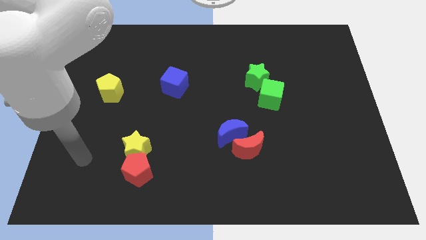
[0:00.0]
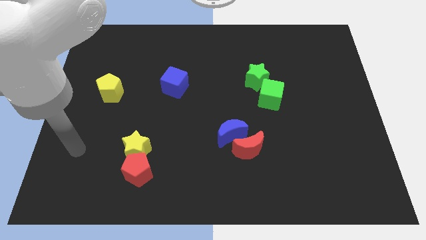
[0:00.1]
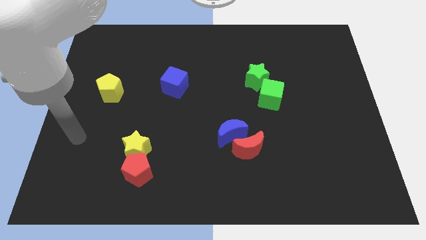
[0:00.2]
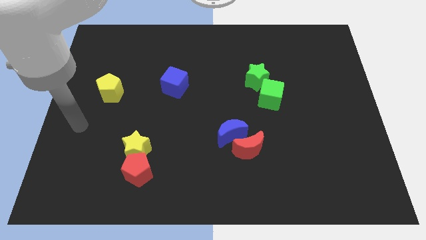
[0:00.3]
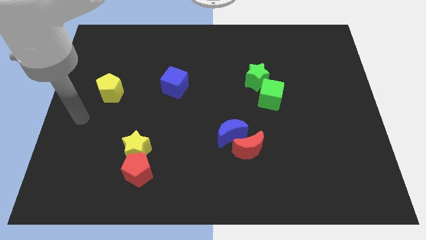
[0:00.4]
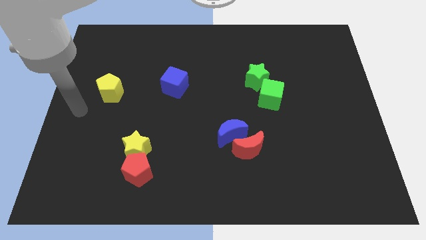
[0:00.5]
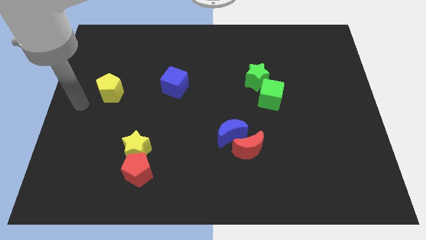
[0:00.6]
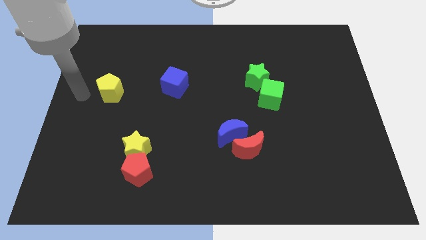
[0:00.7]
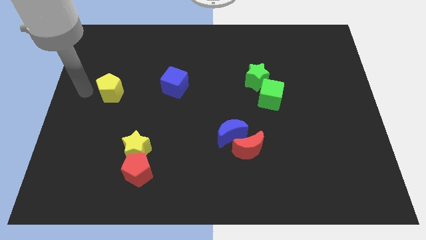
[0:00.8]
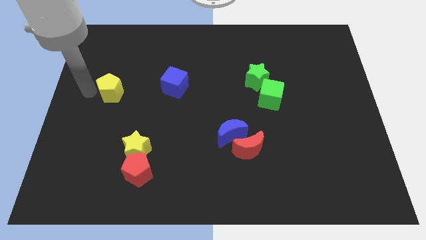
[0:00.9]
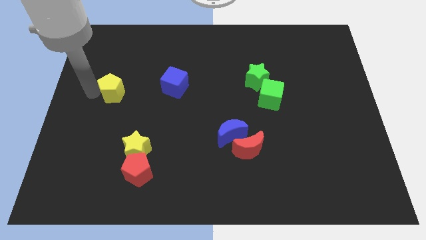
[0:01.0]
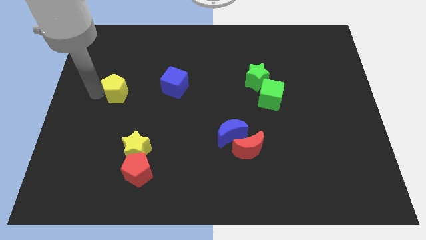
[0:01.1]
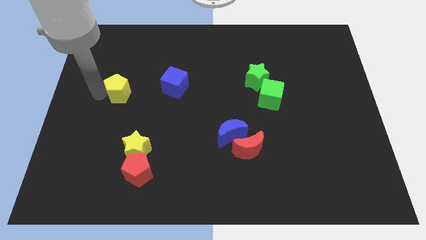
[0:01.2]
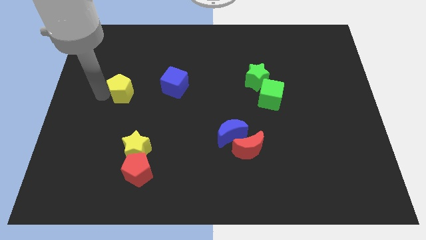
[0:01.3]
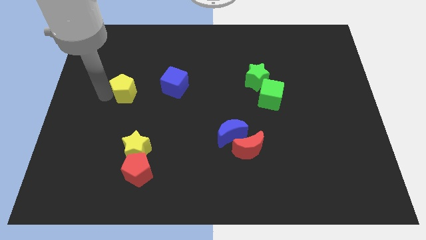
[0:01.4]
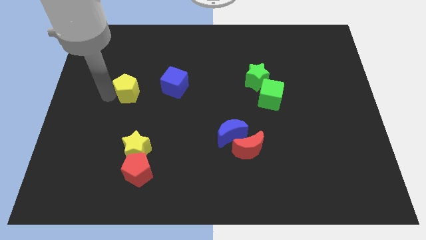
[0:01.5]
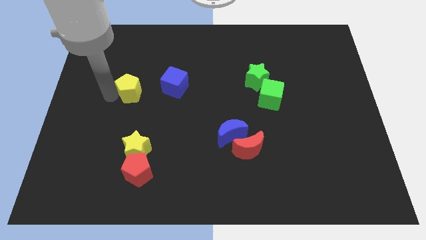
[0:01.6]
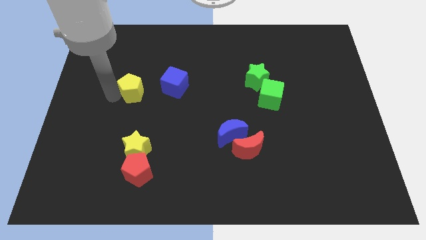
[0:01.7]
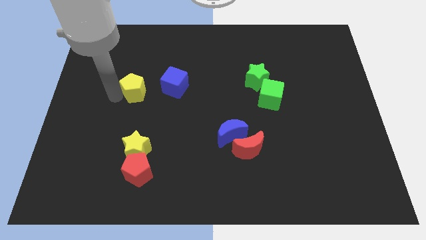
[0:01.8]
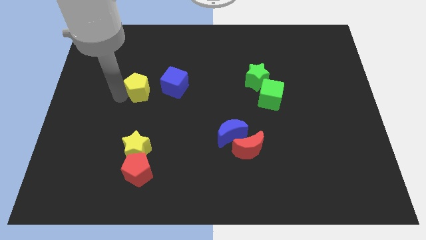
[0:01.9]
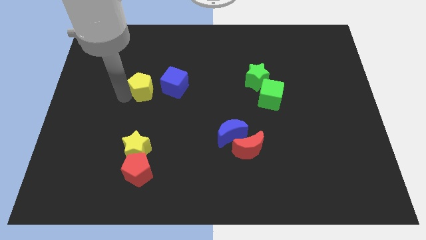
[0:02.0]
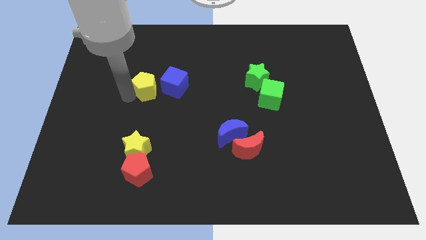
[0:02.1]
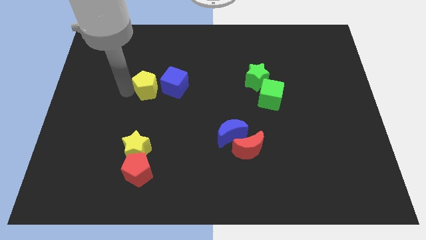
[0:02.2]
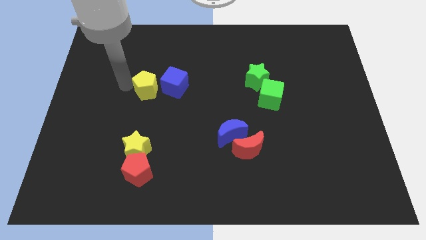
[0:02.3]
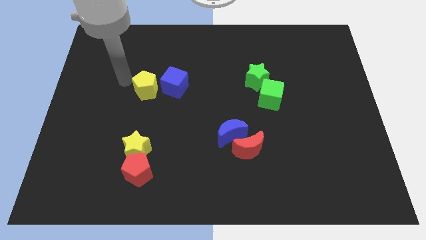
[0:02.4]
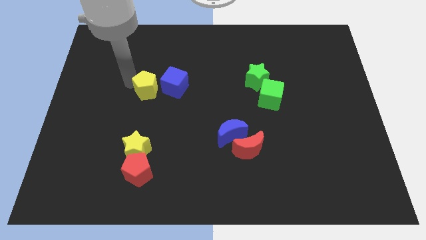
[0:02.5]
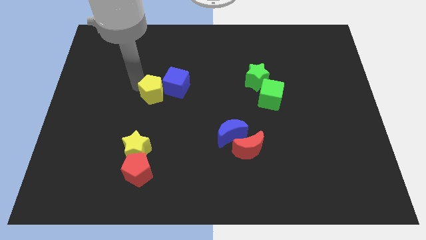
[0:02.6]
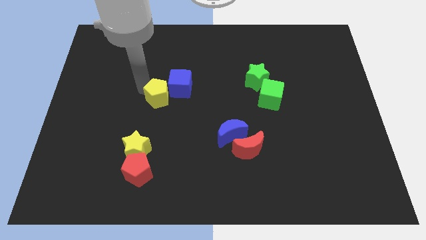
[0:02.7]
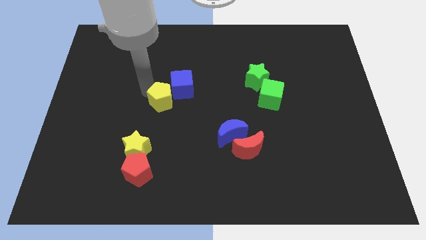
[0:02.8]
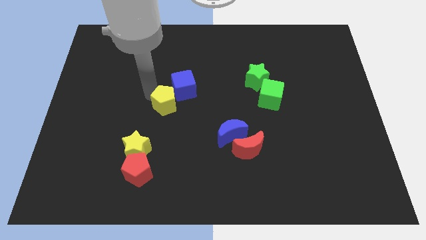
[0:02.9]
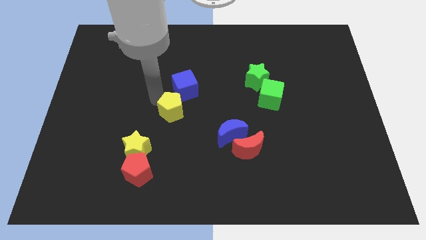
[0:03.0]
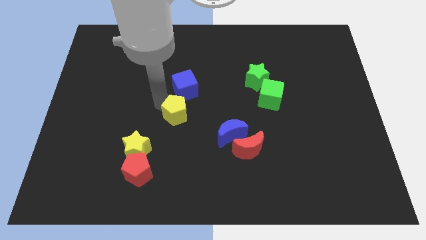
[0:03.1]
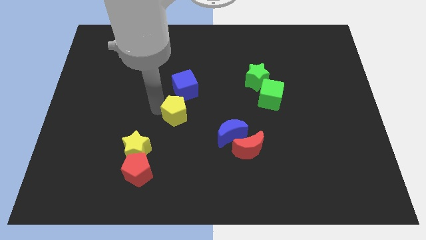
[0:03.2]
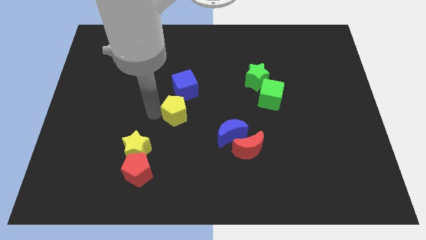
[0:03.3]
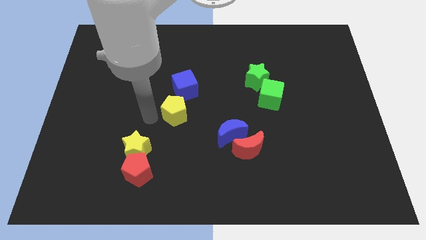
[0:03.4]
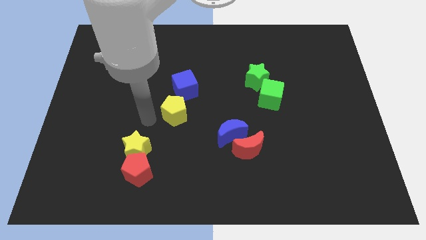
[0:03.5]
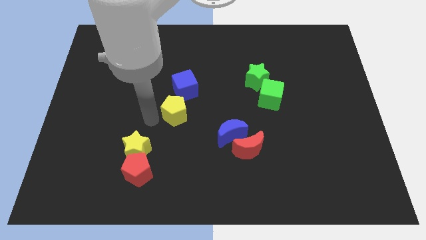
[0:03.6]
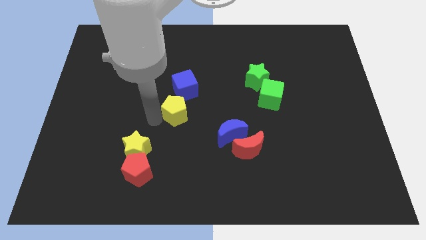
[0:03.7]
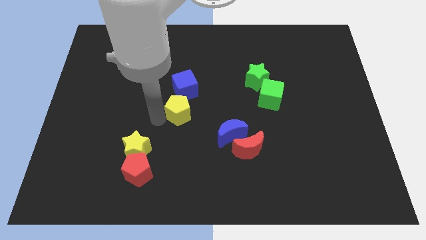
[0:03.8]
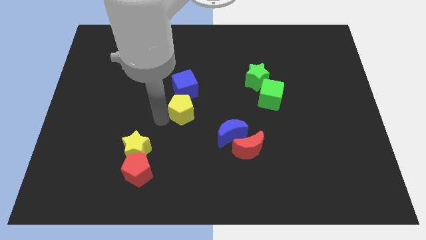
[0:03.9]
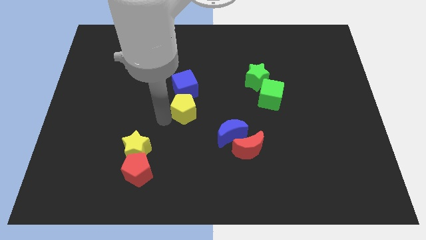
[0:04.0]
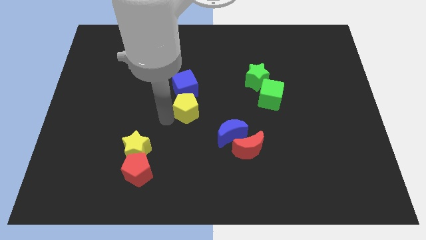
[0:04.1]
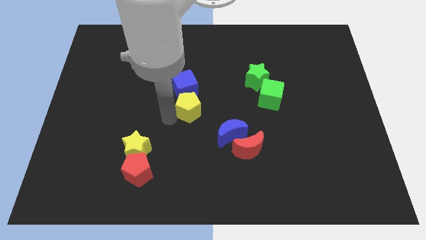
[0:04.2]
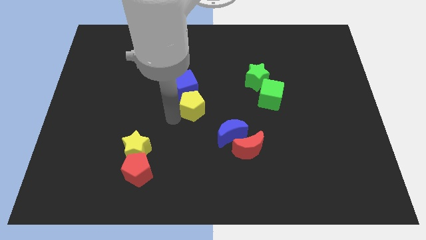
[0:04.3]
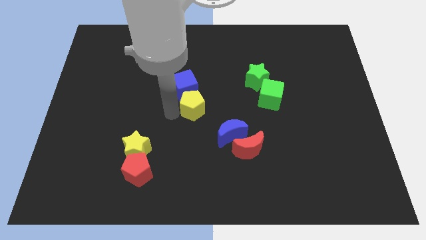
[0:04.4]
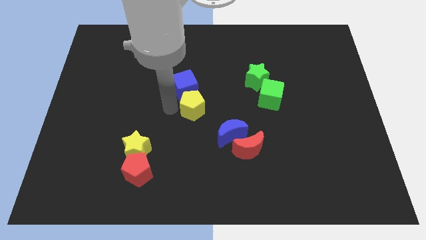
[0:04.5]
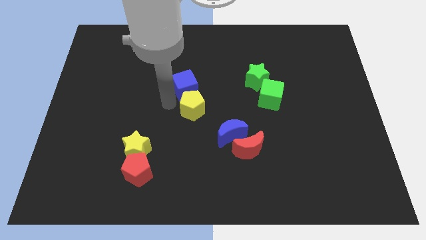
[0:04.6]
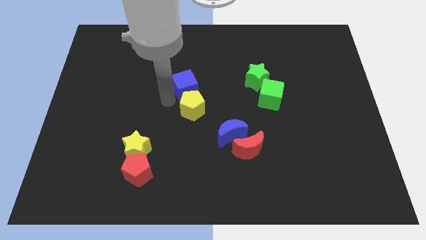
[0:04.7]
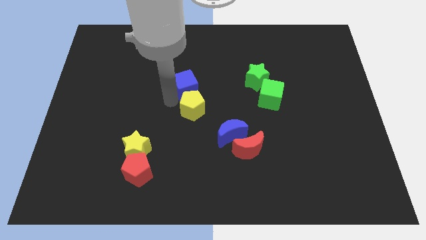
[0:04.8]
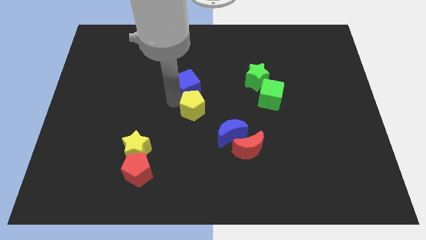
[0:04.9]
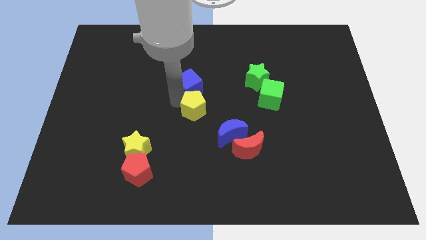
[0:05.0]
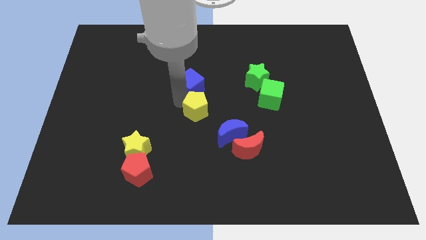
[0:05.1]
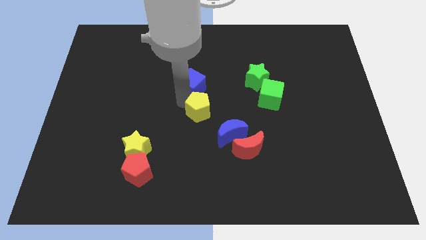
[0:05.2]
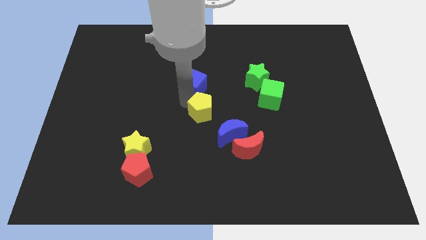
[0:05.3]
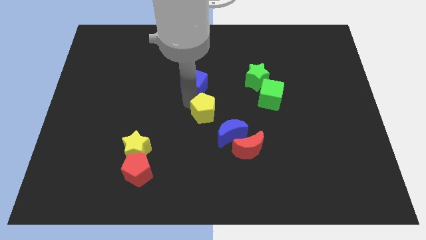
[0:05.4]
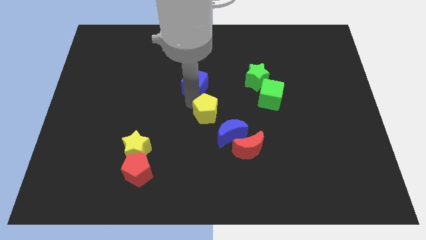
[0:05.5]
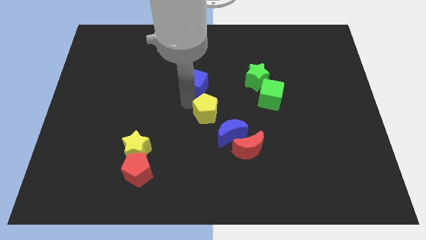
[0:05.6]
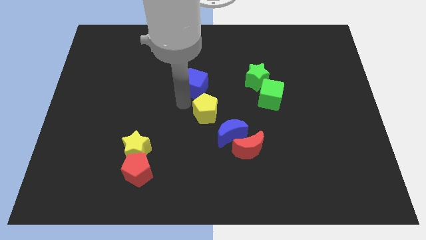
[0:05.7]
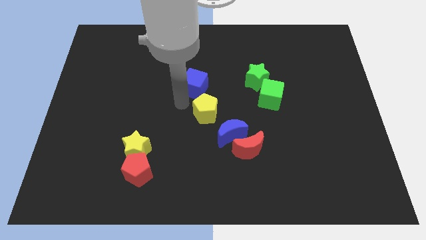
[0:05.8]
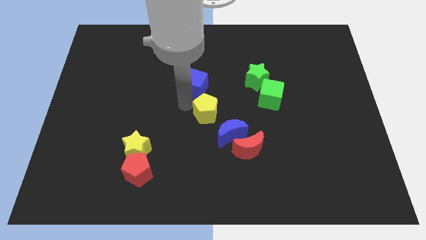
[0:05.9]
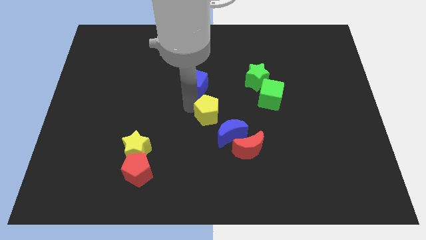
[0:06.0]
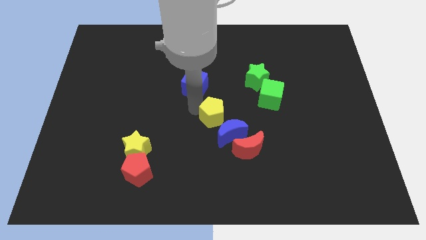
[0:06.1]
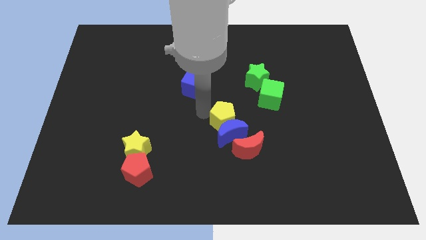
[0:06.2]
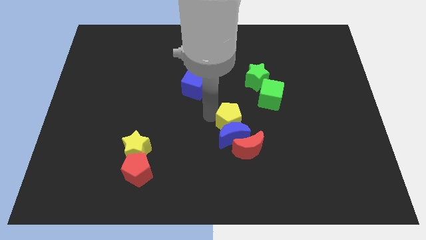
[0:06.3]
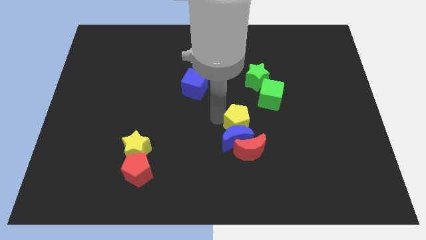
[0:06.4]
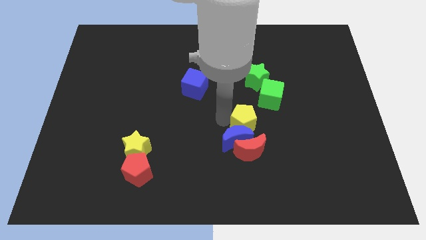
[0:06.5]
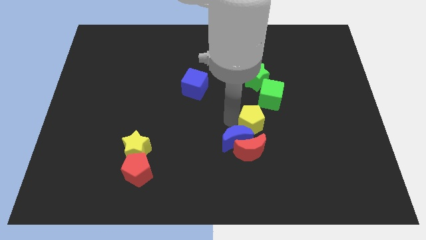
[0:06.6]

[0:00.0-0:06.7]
put the yellow pentagon diagonally up and to the right of the red moon

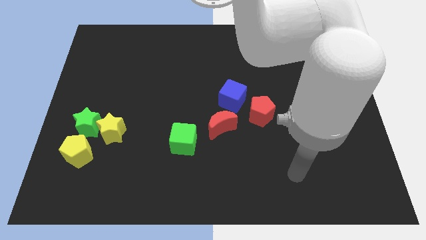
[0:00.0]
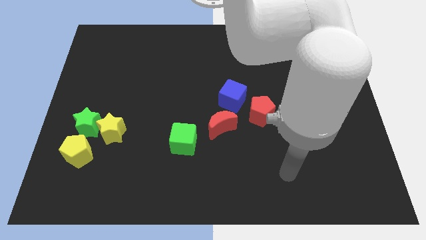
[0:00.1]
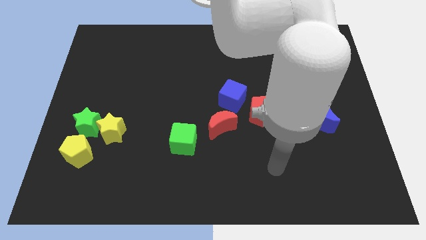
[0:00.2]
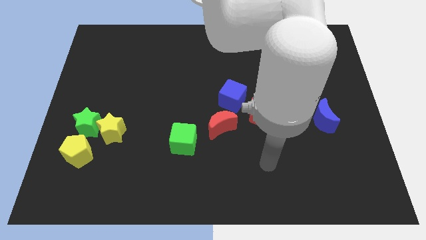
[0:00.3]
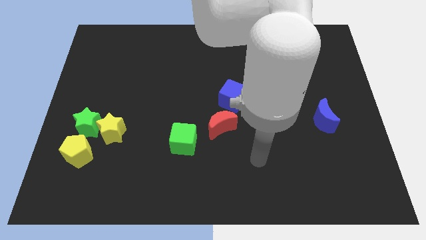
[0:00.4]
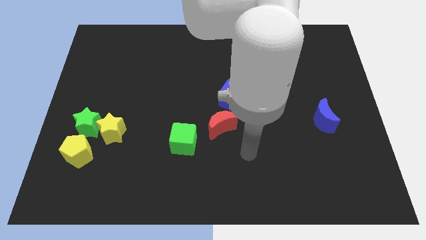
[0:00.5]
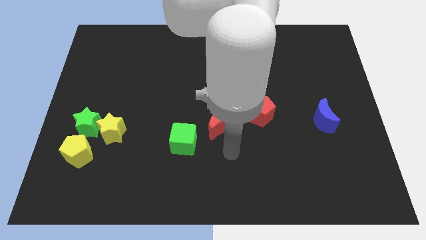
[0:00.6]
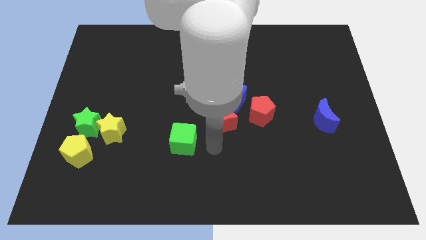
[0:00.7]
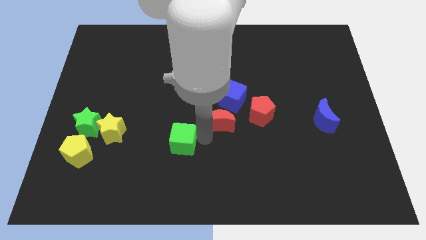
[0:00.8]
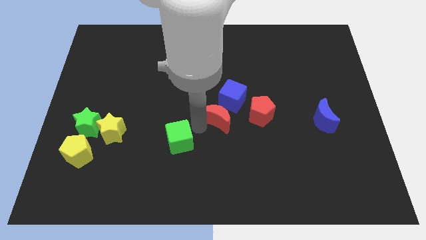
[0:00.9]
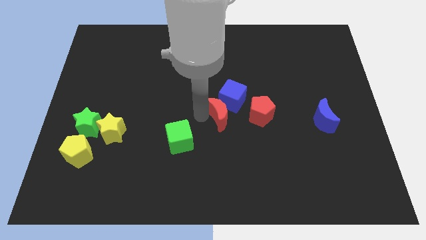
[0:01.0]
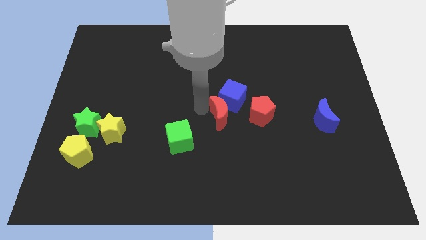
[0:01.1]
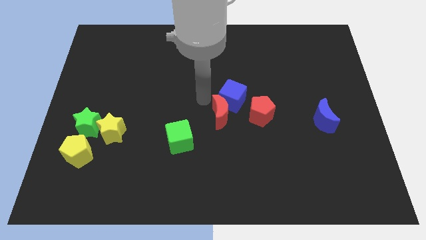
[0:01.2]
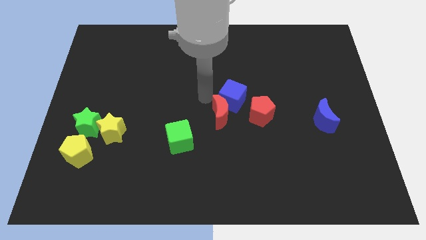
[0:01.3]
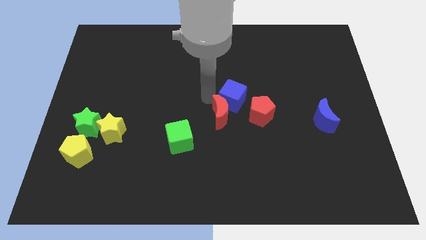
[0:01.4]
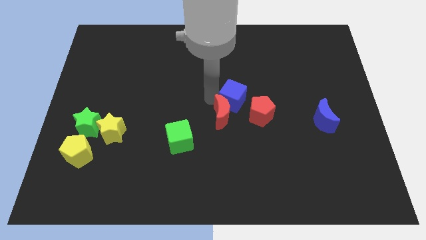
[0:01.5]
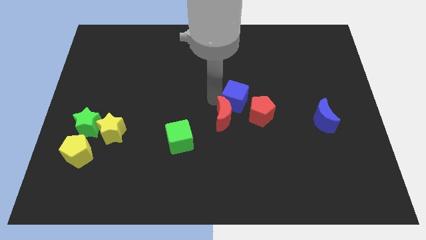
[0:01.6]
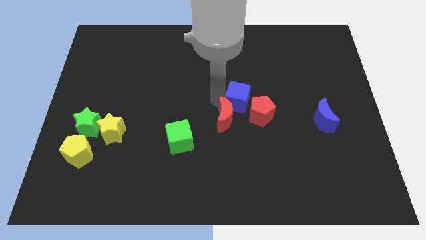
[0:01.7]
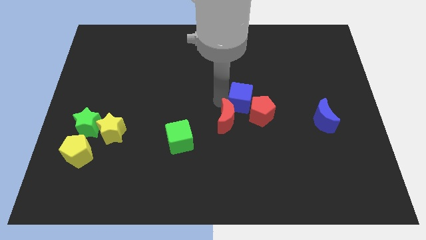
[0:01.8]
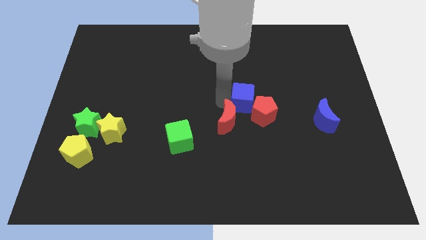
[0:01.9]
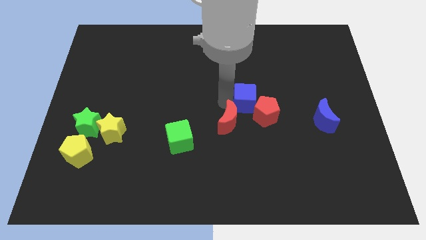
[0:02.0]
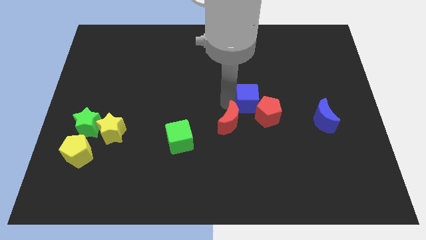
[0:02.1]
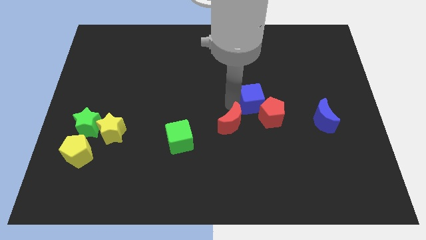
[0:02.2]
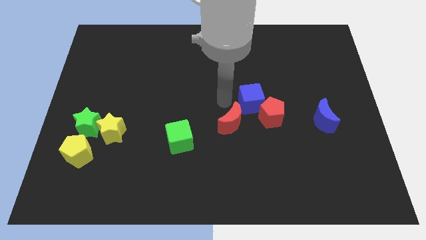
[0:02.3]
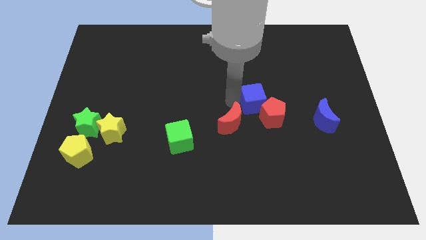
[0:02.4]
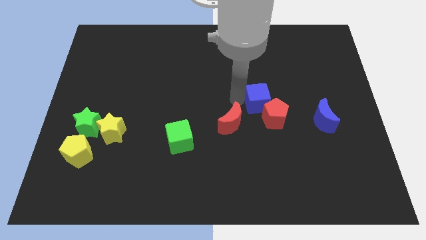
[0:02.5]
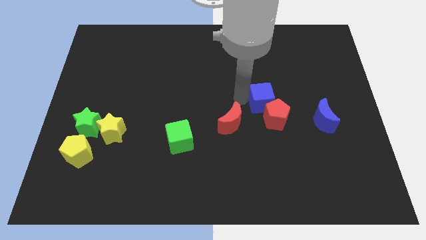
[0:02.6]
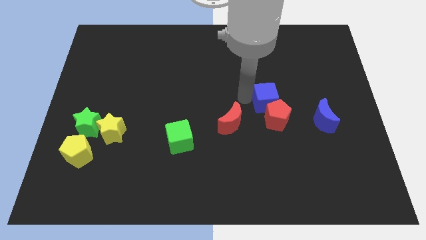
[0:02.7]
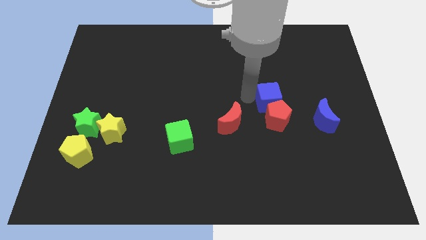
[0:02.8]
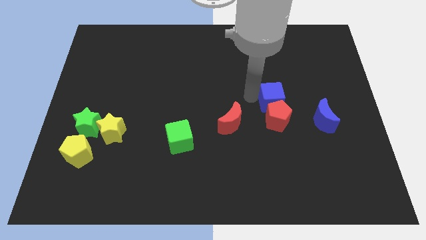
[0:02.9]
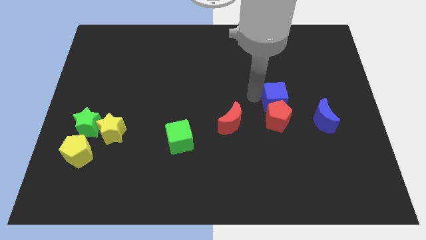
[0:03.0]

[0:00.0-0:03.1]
move the blue cube to the top left of the blue moon
